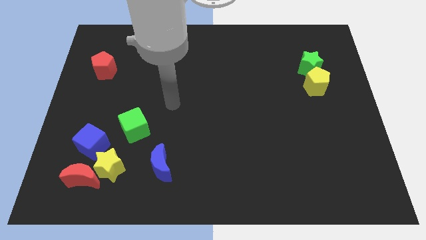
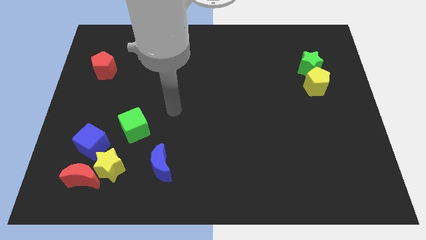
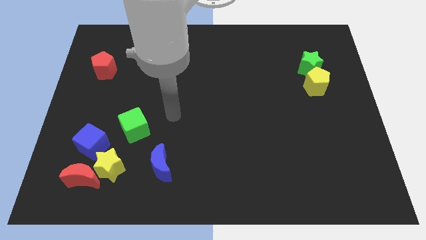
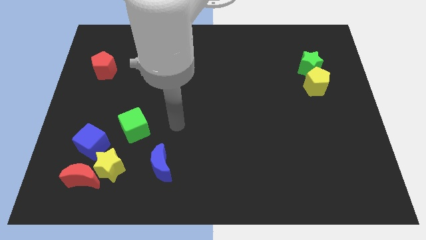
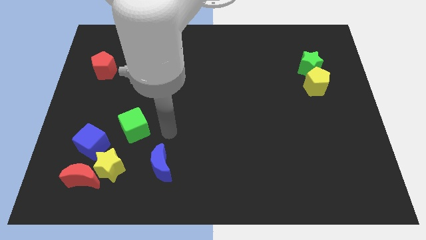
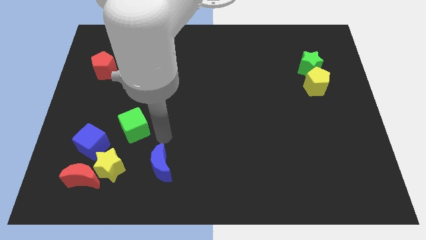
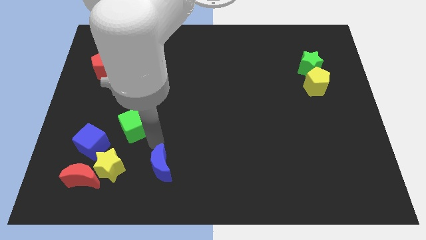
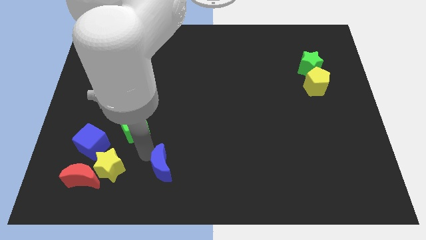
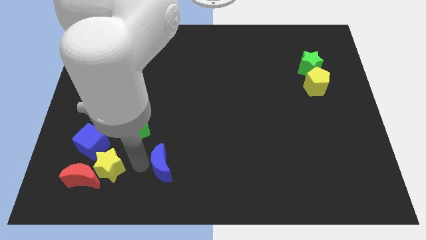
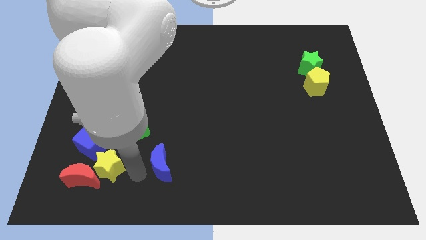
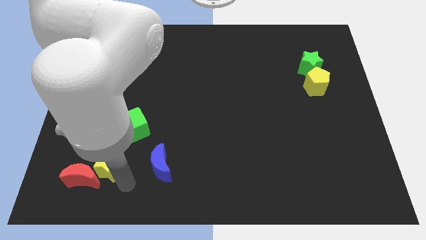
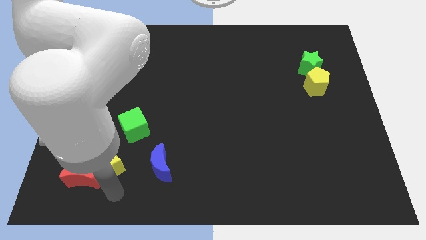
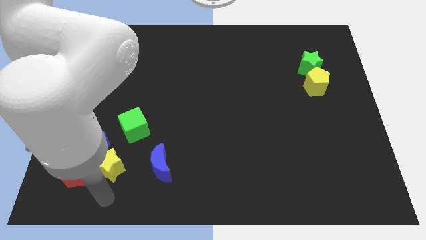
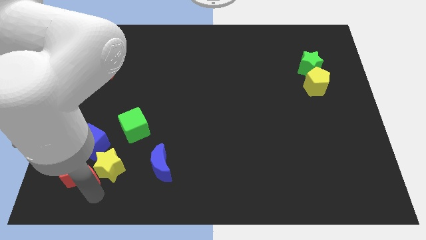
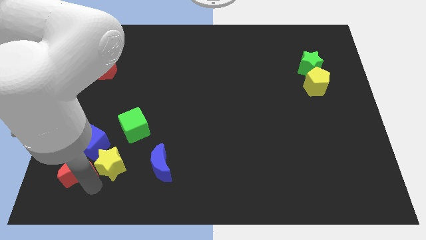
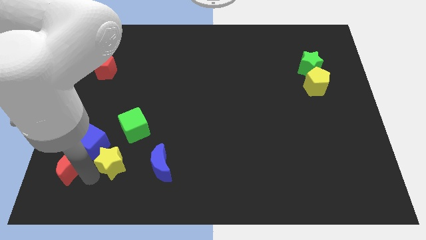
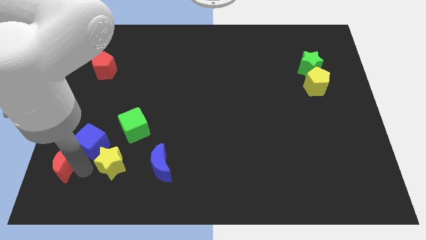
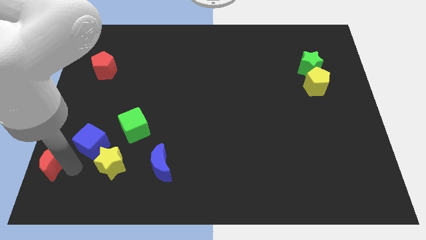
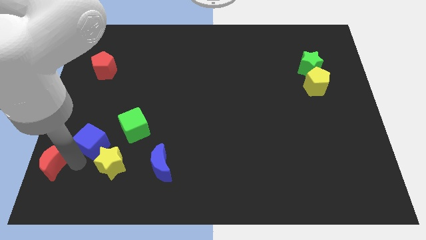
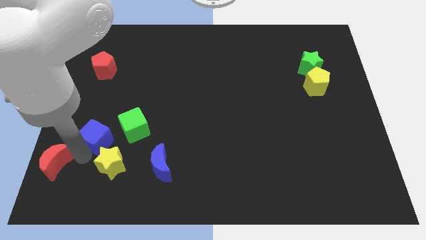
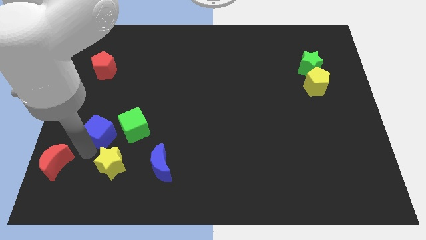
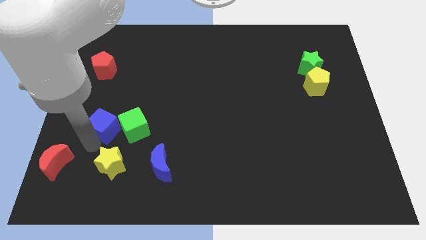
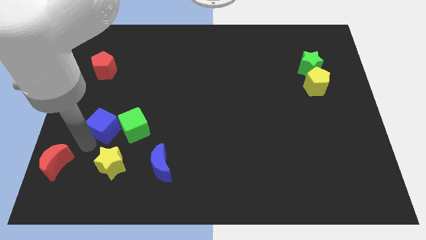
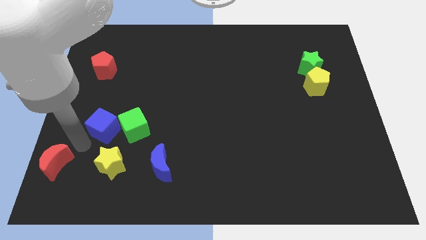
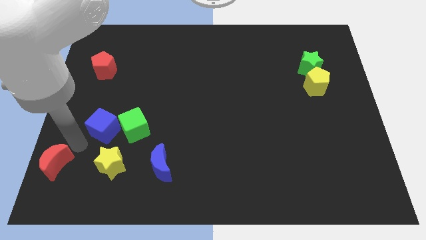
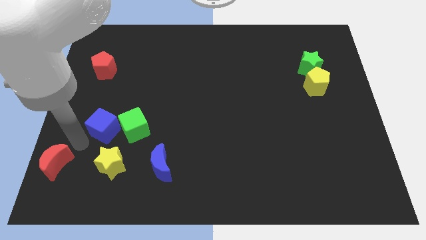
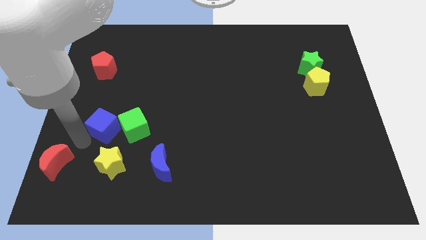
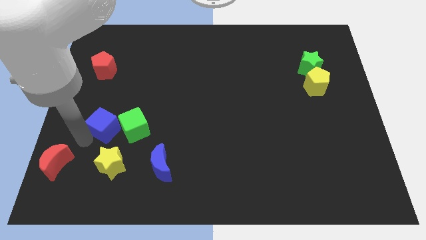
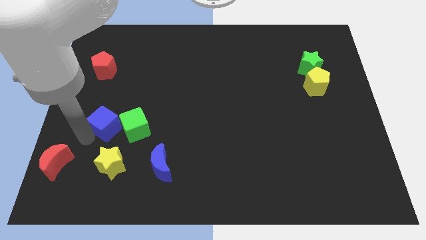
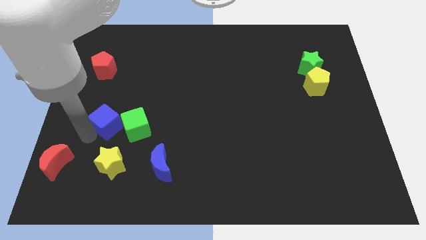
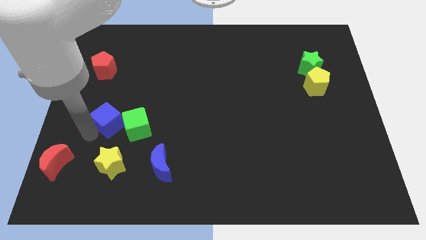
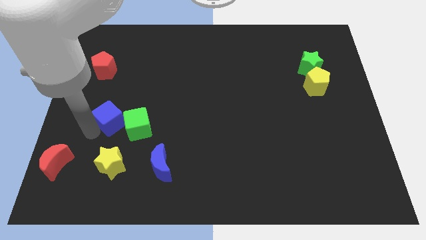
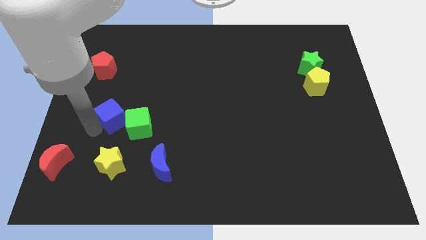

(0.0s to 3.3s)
move the blue cube a little bit upwards and right

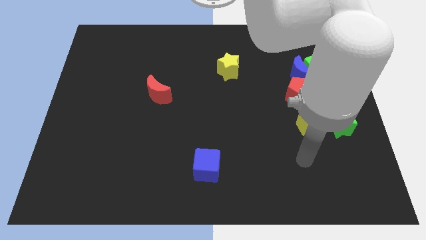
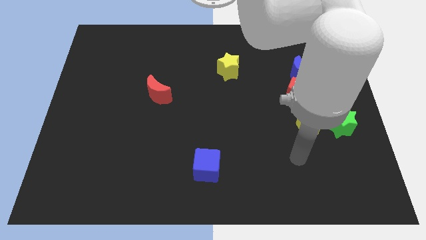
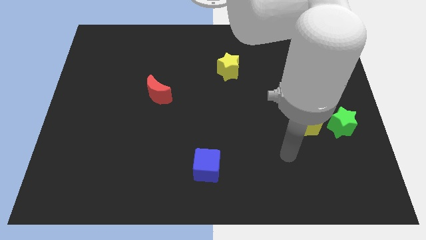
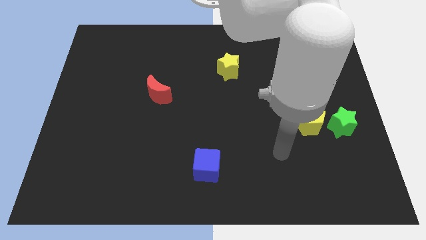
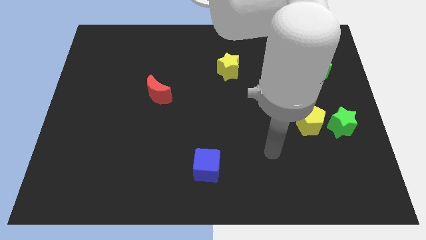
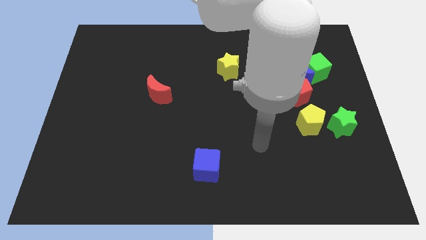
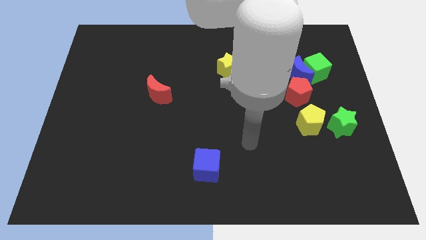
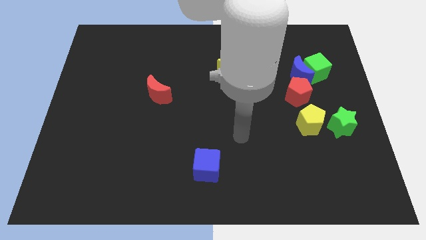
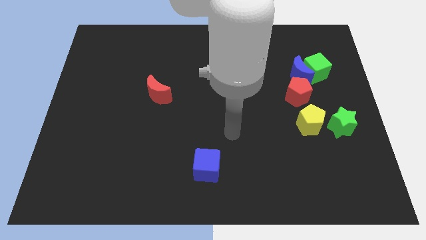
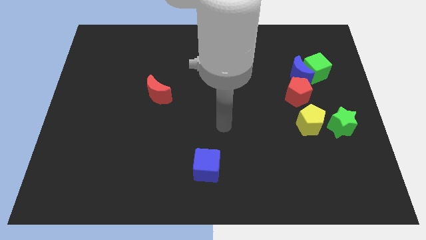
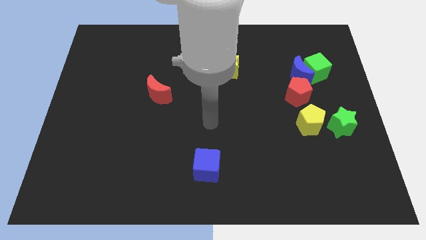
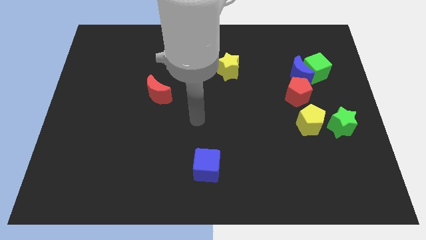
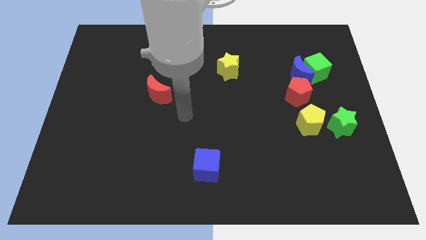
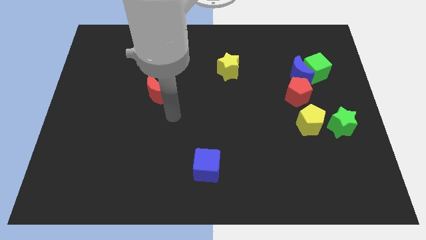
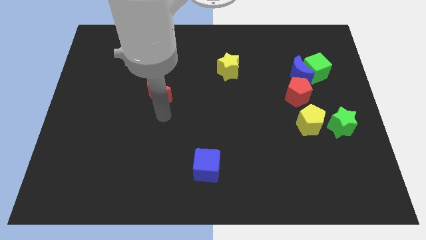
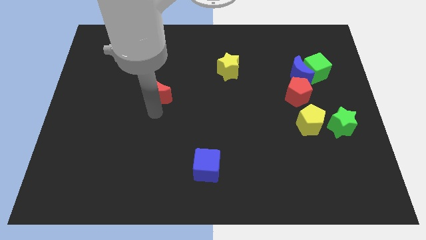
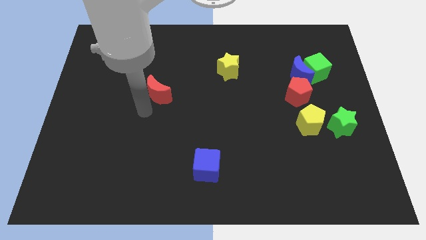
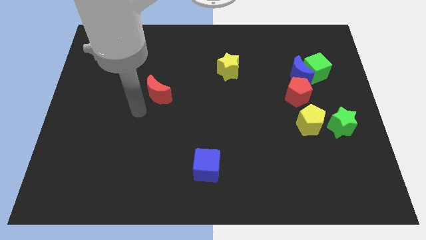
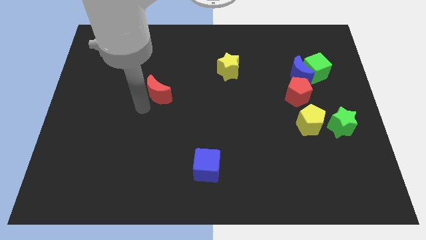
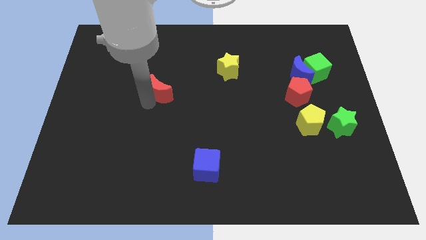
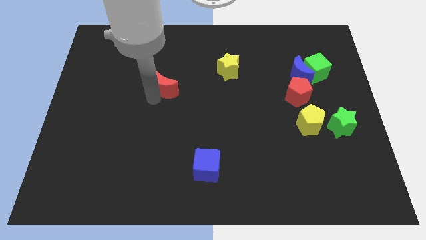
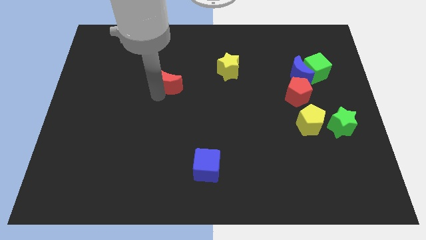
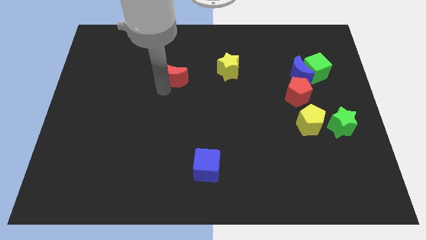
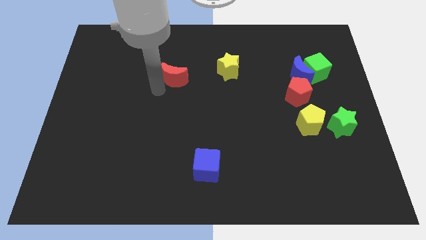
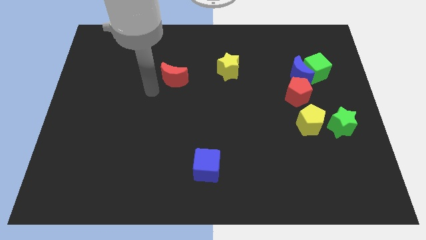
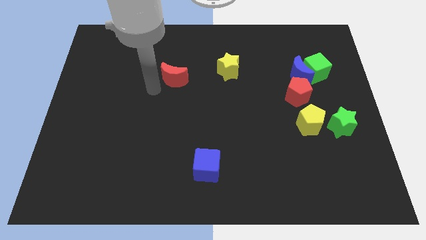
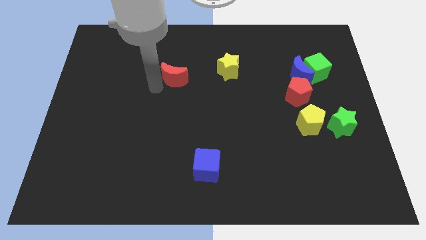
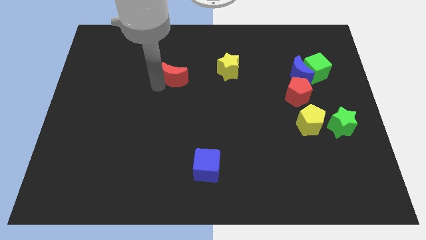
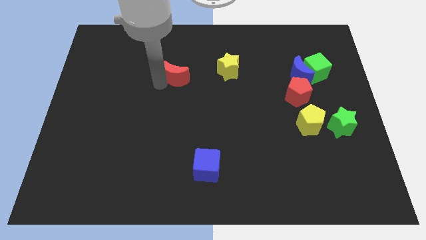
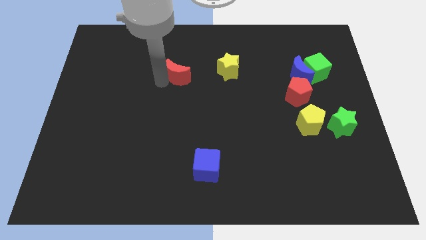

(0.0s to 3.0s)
move the red moon a bit upwards and then to the right

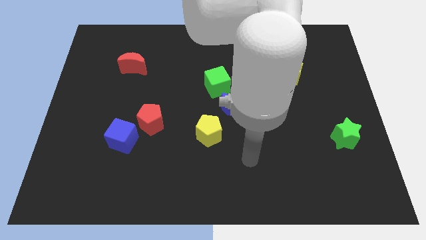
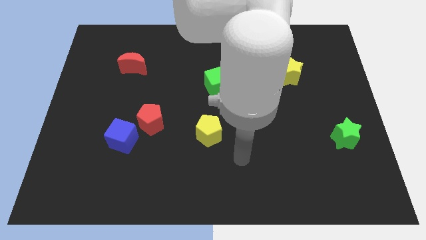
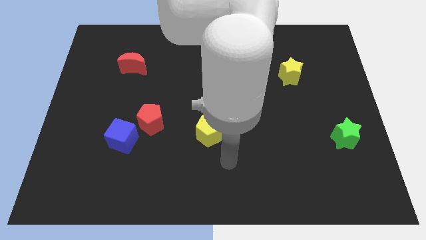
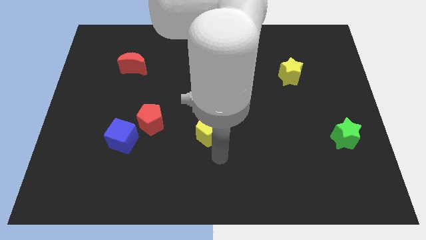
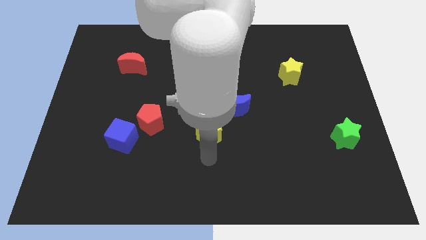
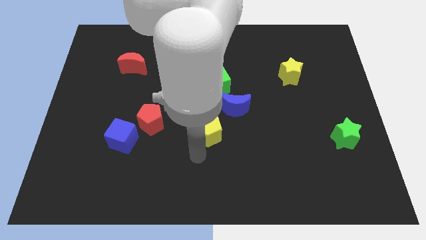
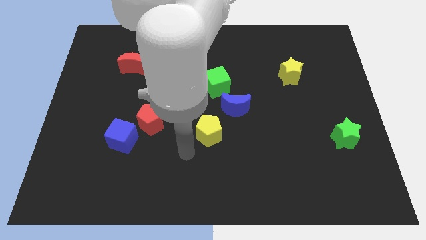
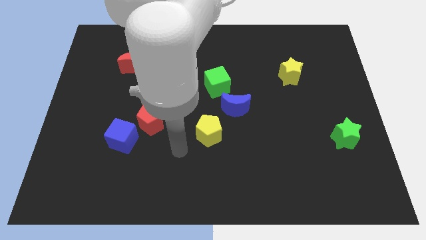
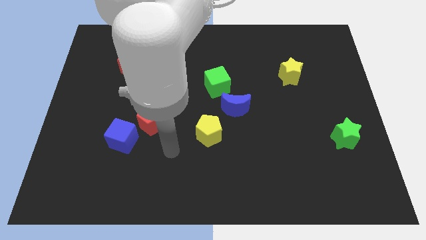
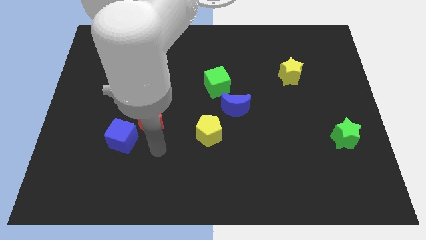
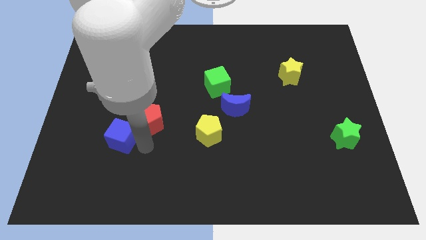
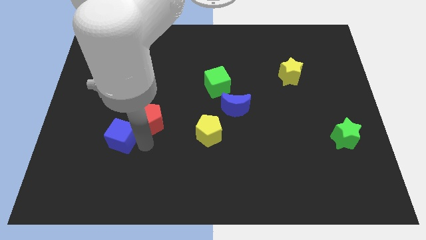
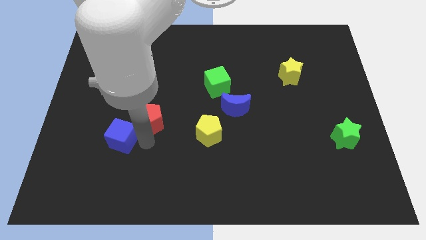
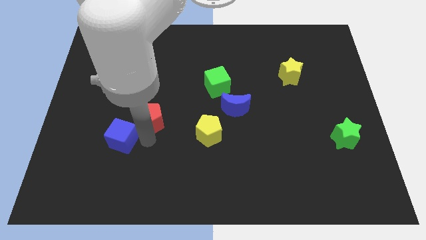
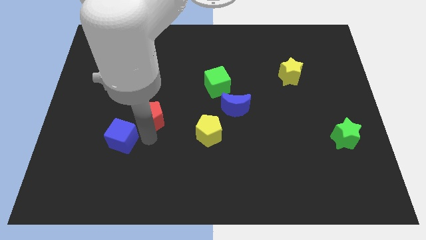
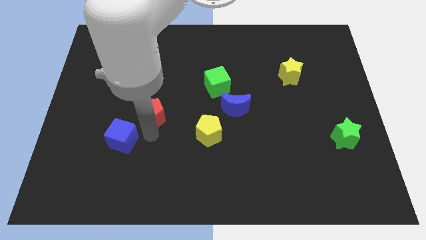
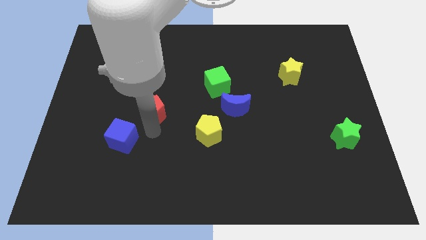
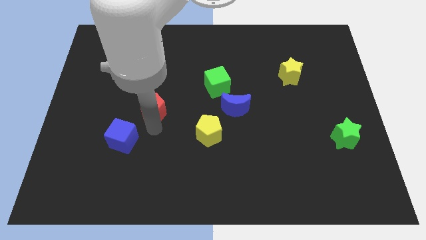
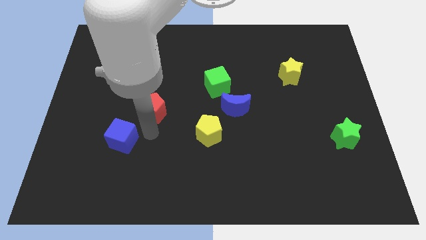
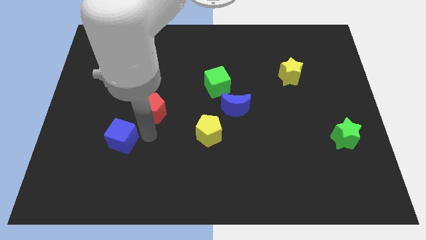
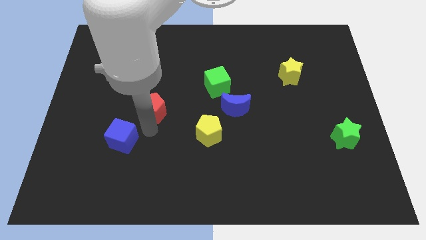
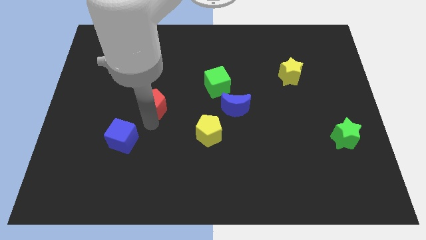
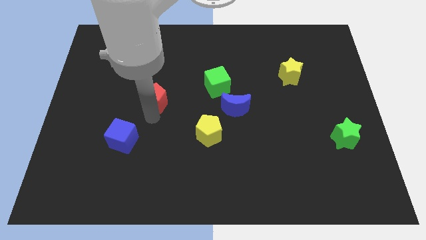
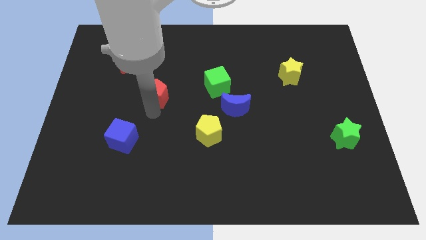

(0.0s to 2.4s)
slightly move the red pentagon up
